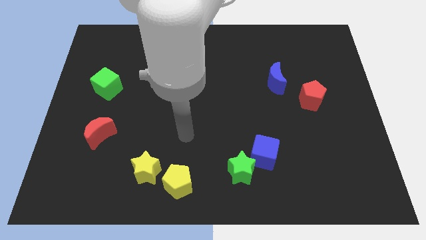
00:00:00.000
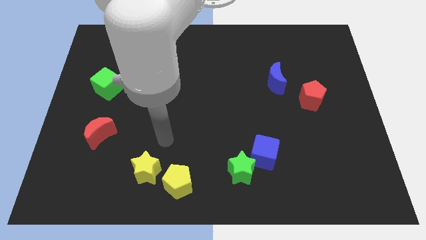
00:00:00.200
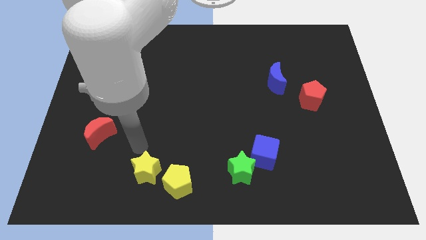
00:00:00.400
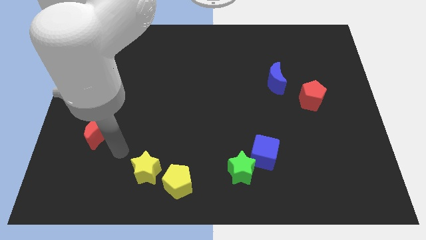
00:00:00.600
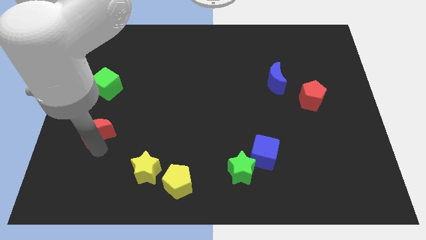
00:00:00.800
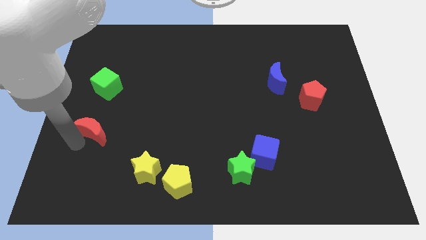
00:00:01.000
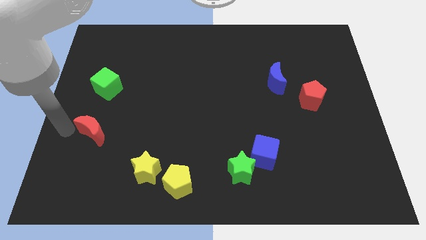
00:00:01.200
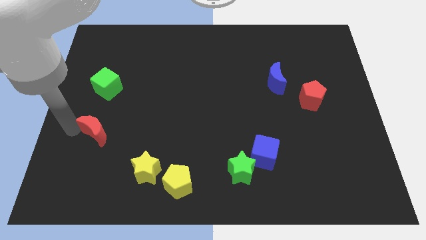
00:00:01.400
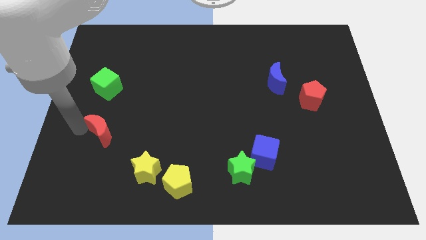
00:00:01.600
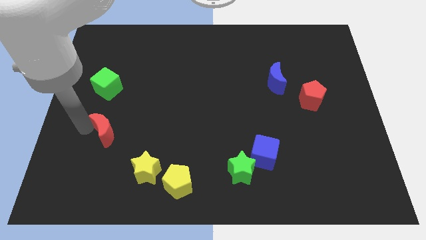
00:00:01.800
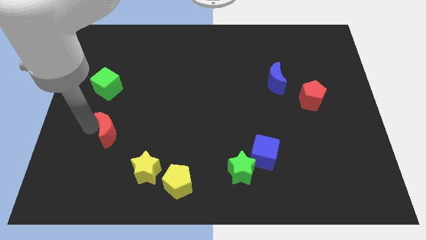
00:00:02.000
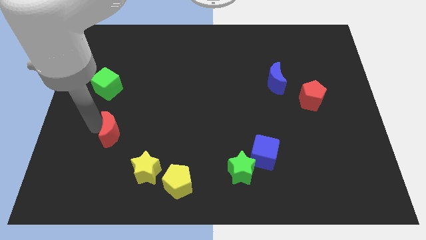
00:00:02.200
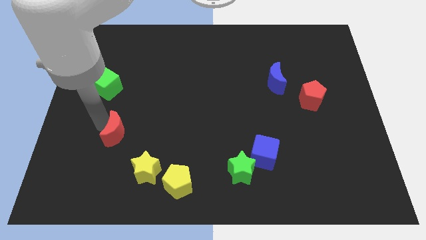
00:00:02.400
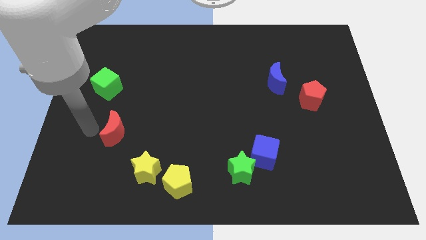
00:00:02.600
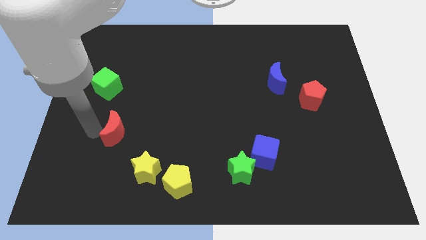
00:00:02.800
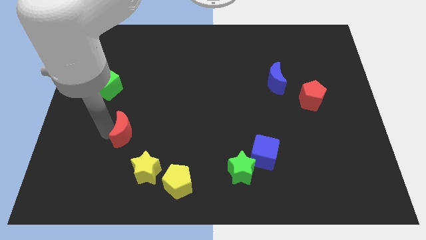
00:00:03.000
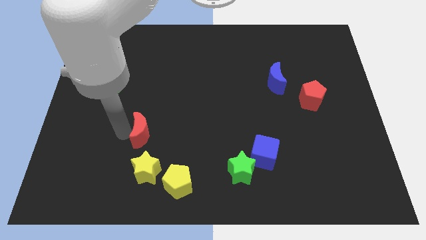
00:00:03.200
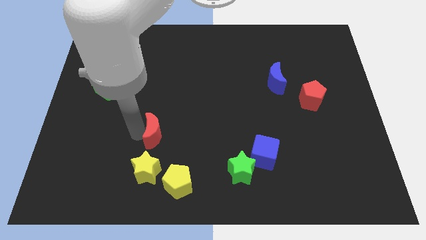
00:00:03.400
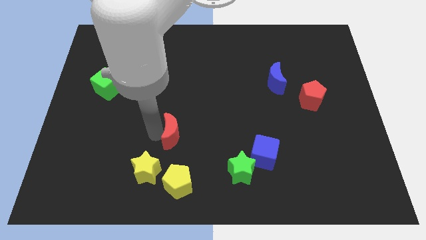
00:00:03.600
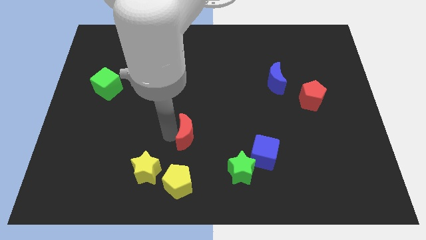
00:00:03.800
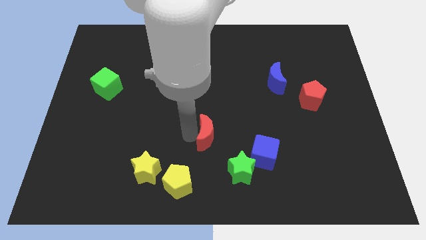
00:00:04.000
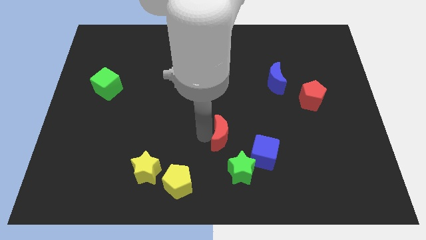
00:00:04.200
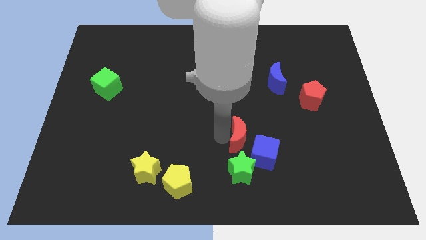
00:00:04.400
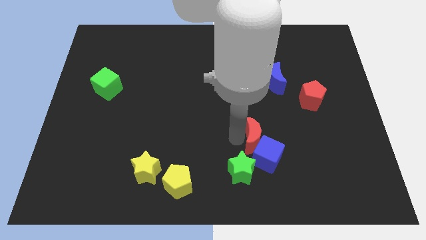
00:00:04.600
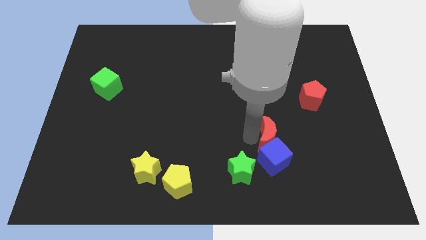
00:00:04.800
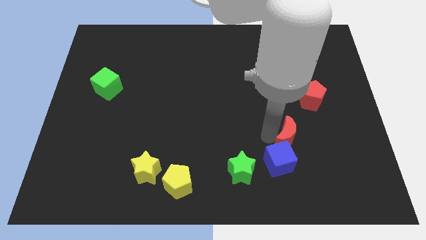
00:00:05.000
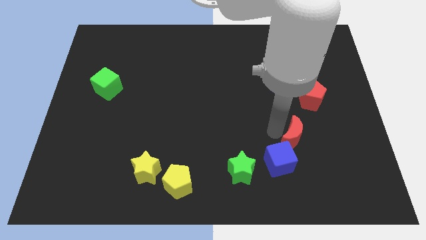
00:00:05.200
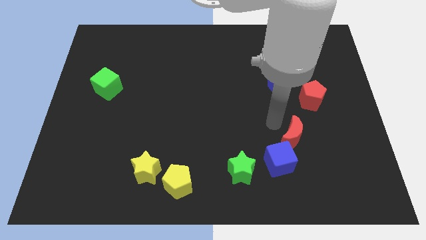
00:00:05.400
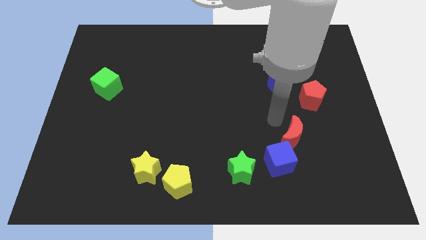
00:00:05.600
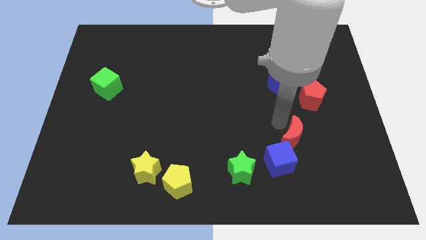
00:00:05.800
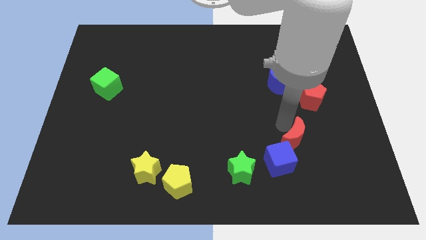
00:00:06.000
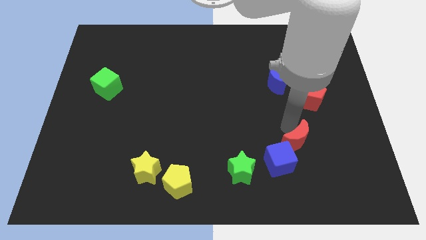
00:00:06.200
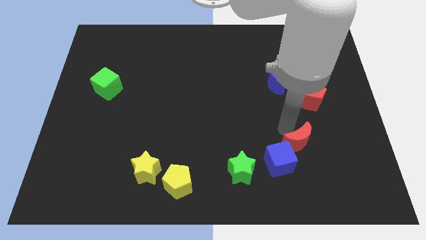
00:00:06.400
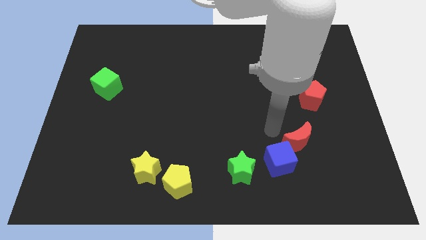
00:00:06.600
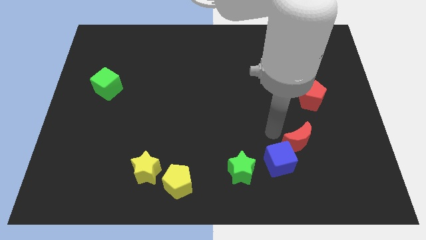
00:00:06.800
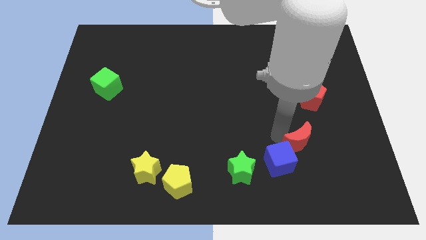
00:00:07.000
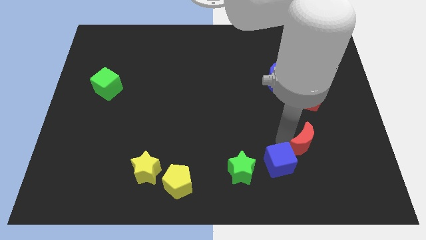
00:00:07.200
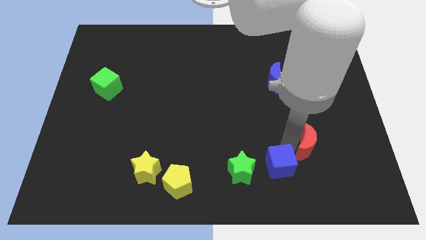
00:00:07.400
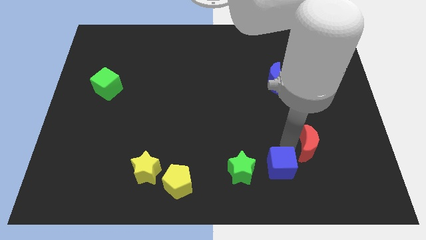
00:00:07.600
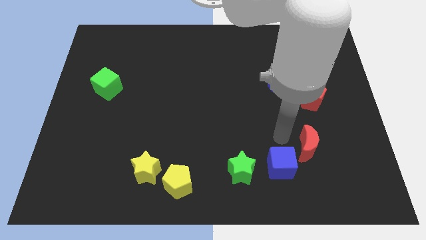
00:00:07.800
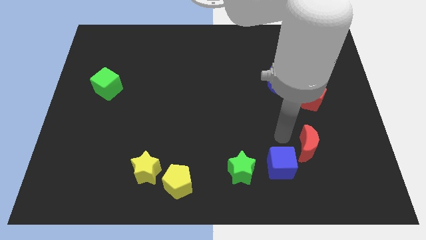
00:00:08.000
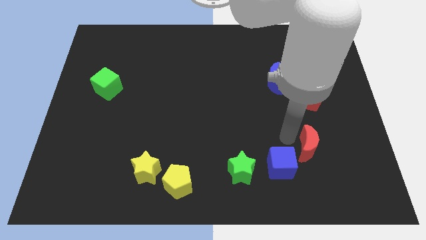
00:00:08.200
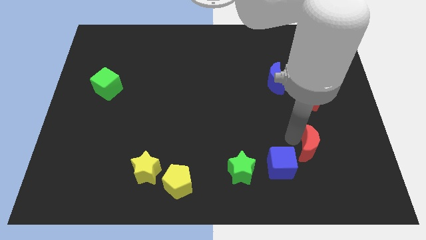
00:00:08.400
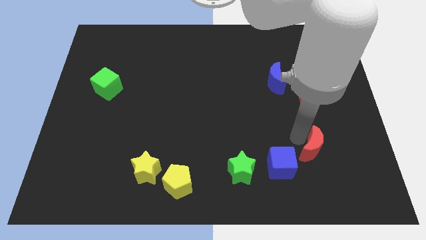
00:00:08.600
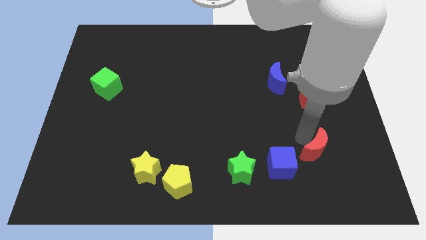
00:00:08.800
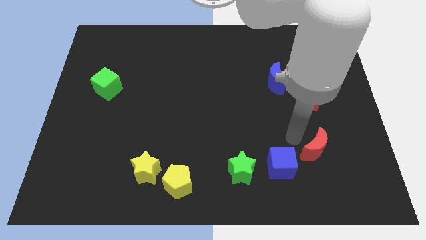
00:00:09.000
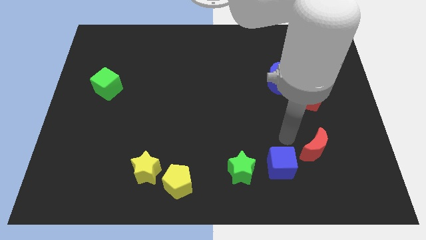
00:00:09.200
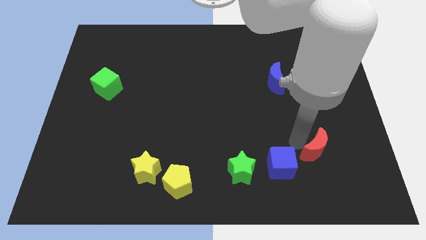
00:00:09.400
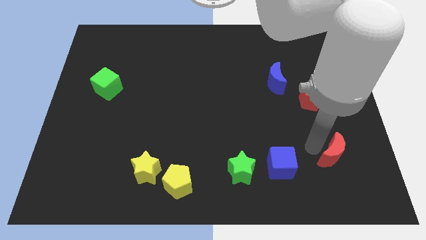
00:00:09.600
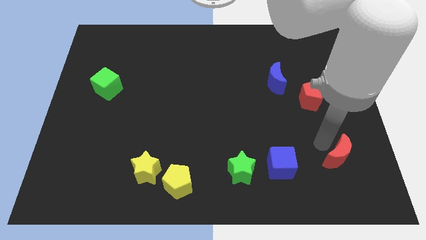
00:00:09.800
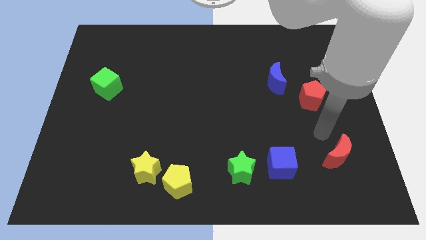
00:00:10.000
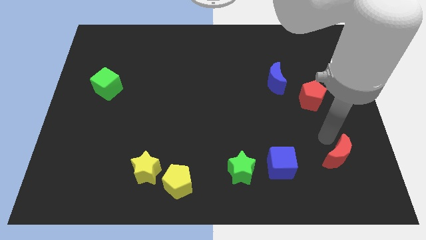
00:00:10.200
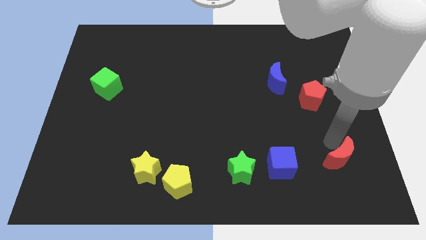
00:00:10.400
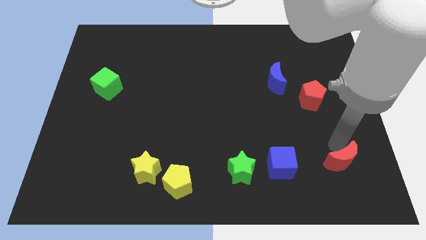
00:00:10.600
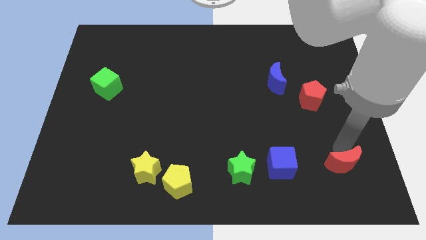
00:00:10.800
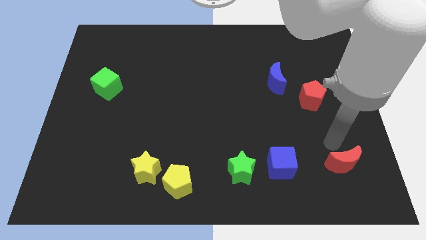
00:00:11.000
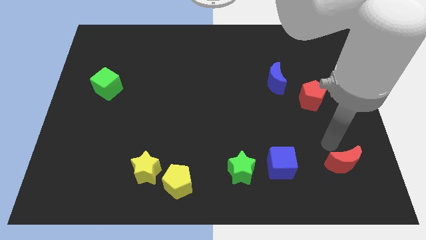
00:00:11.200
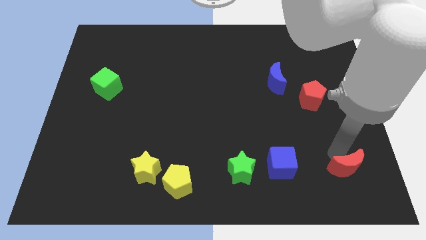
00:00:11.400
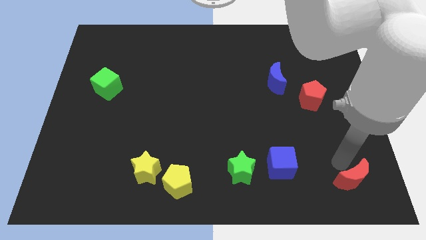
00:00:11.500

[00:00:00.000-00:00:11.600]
slide the red moon to the bottom right
